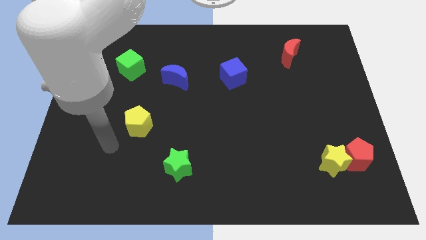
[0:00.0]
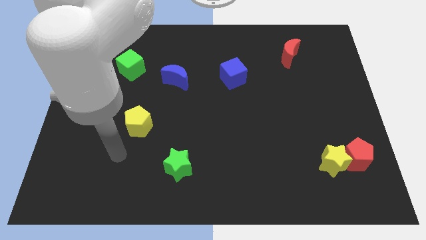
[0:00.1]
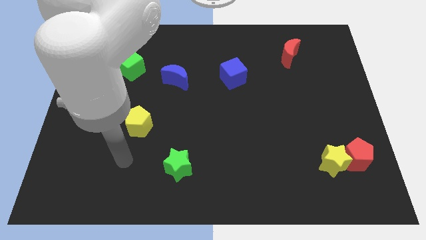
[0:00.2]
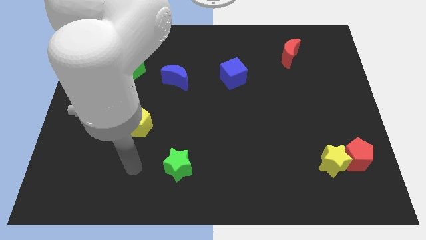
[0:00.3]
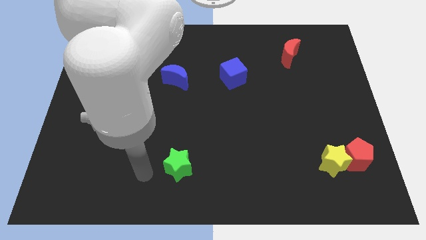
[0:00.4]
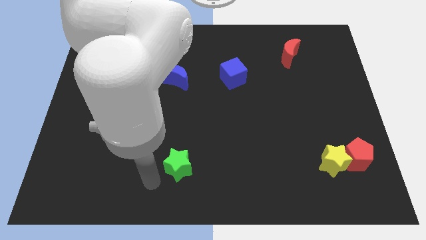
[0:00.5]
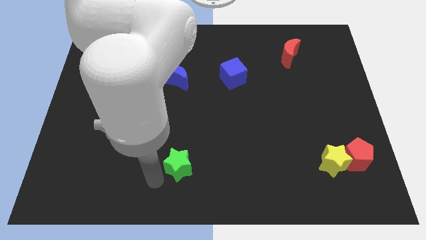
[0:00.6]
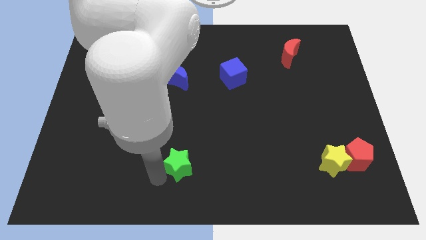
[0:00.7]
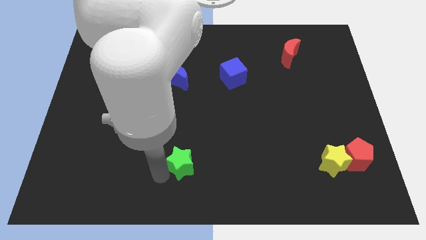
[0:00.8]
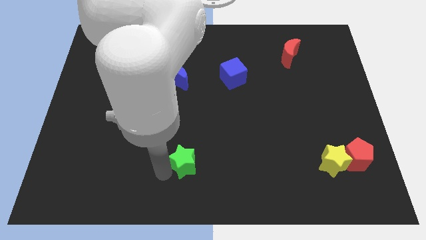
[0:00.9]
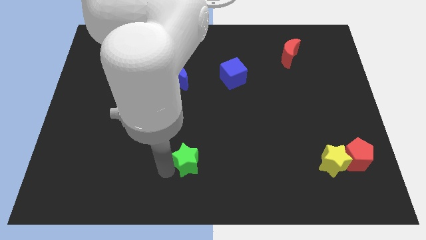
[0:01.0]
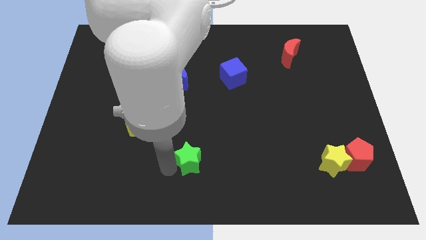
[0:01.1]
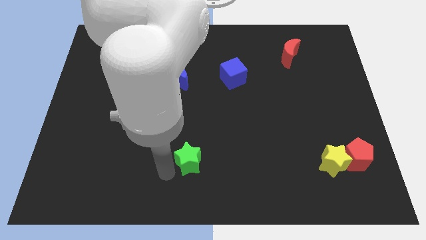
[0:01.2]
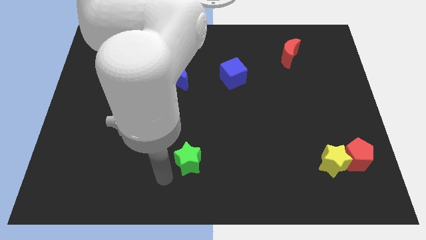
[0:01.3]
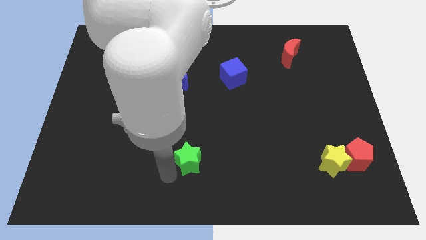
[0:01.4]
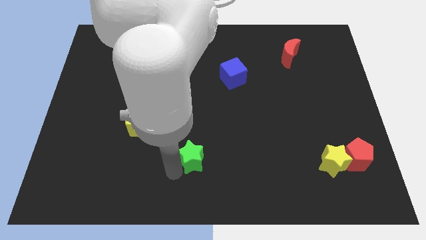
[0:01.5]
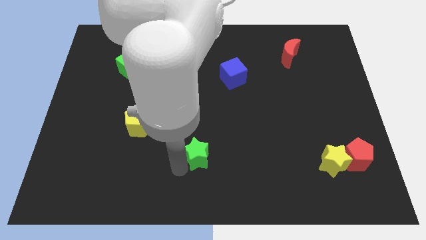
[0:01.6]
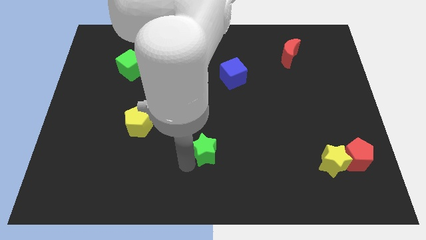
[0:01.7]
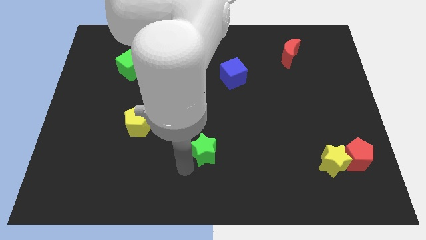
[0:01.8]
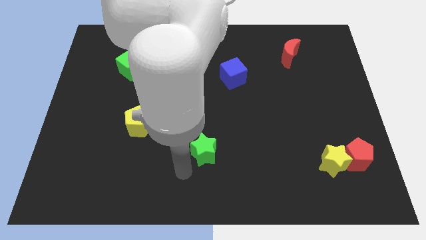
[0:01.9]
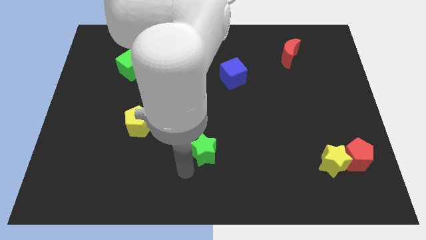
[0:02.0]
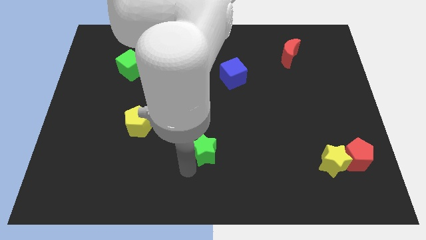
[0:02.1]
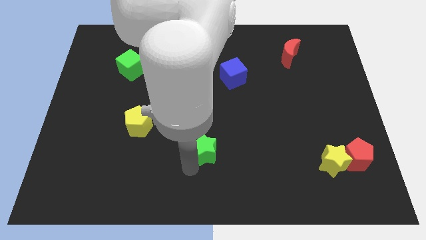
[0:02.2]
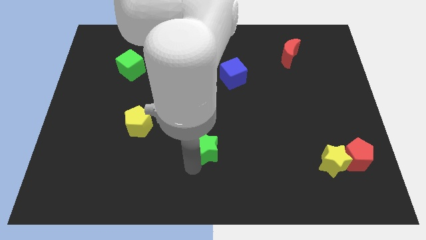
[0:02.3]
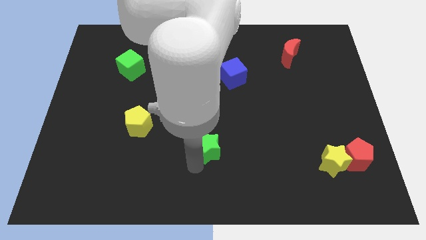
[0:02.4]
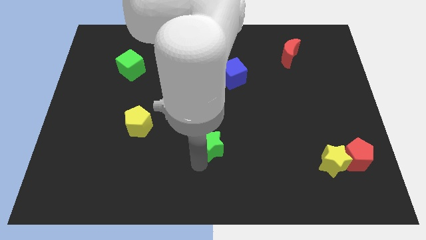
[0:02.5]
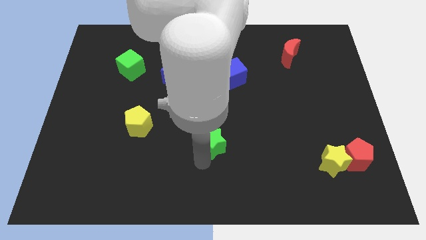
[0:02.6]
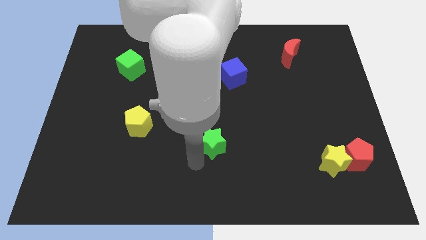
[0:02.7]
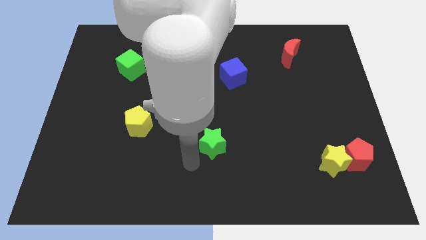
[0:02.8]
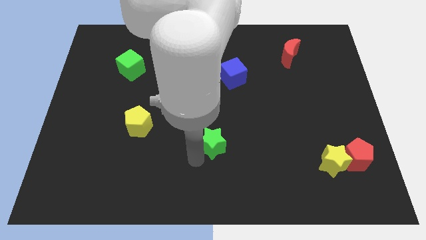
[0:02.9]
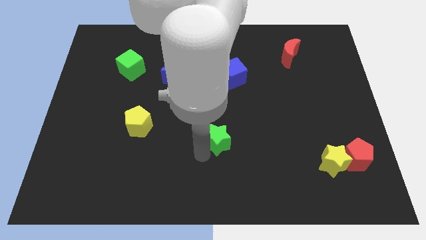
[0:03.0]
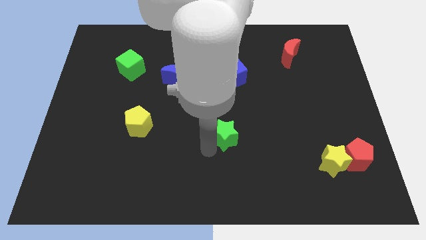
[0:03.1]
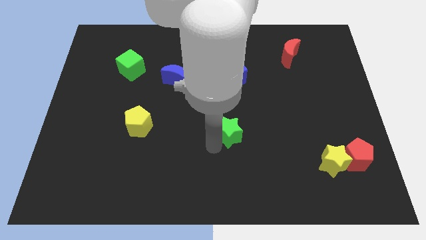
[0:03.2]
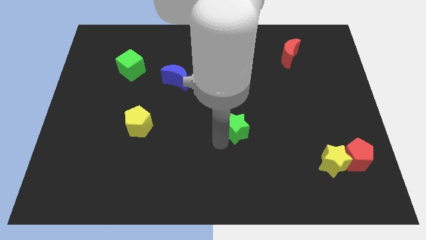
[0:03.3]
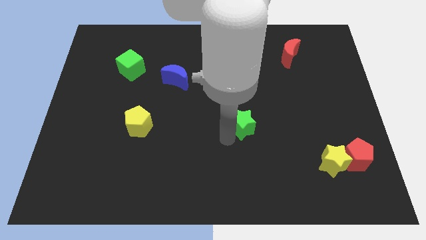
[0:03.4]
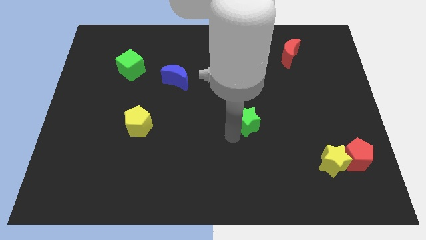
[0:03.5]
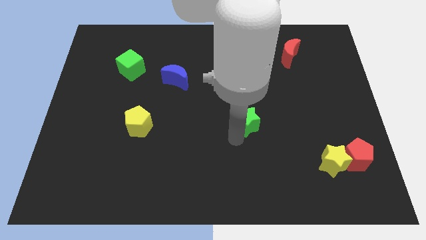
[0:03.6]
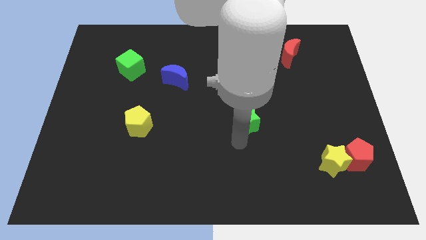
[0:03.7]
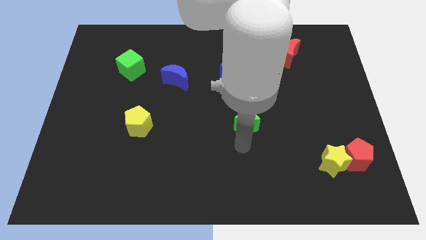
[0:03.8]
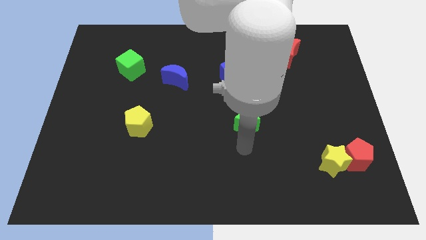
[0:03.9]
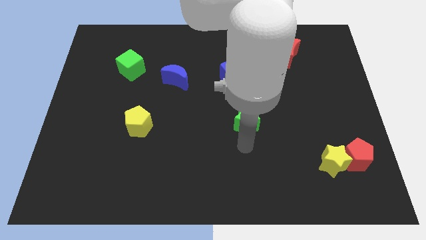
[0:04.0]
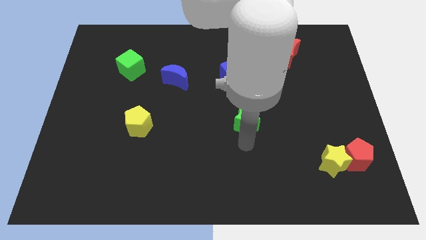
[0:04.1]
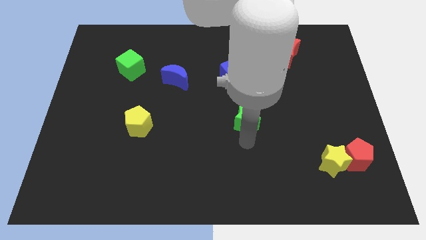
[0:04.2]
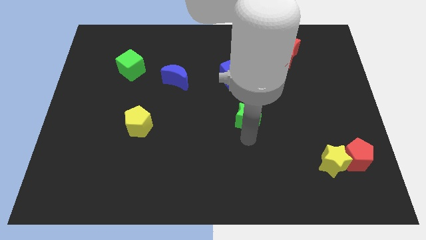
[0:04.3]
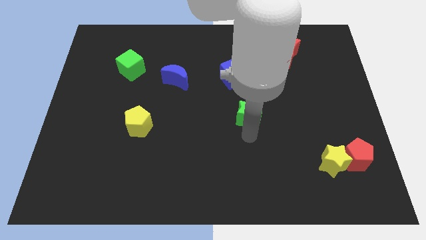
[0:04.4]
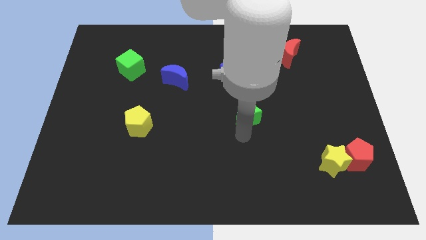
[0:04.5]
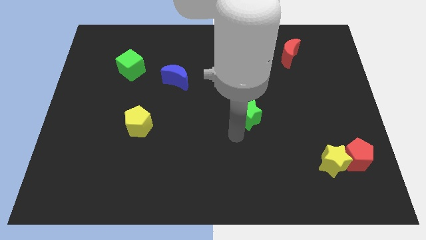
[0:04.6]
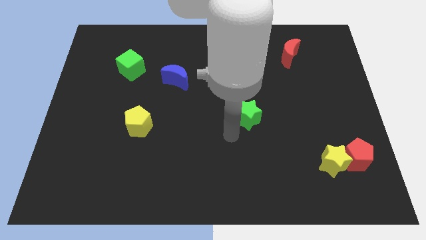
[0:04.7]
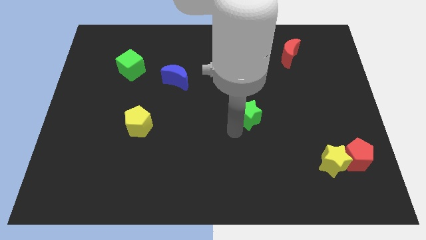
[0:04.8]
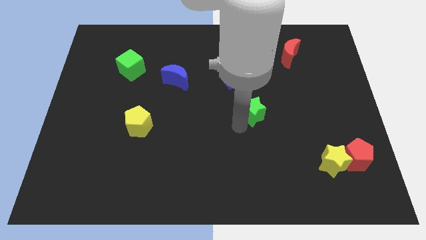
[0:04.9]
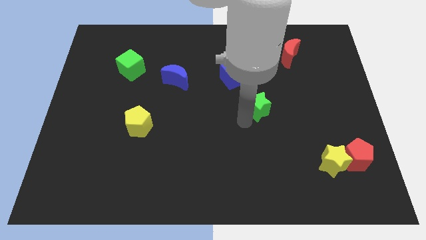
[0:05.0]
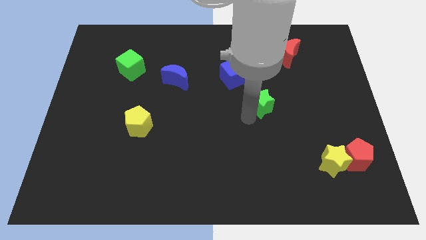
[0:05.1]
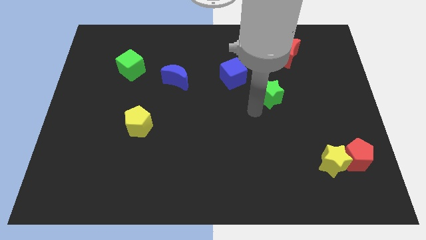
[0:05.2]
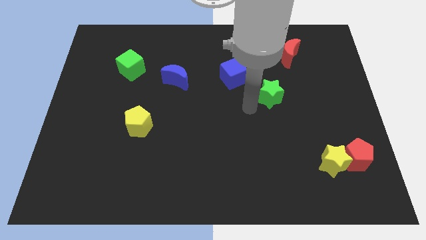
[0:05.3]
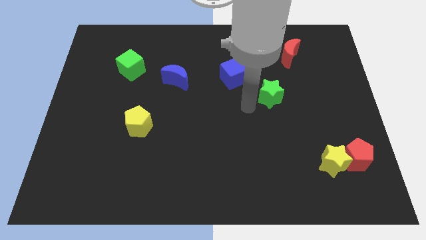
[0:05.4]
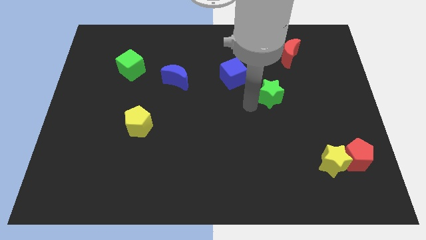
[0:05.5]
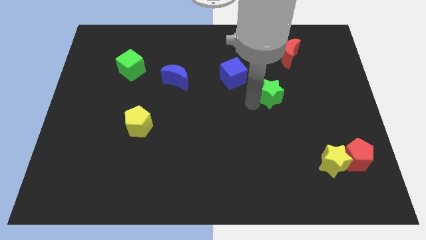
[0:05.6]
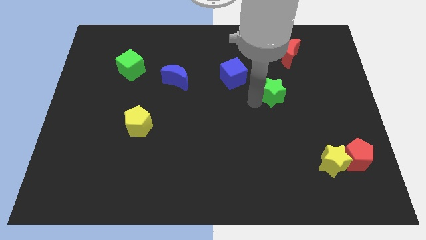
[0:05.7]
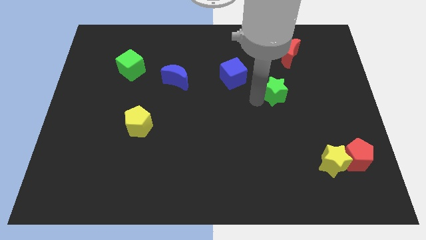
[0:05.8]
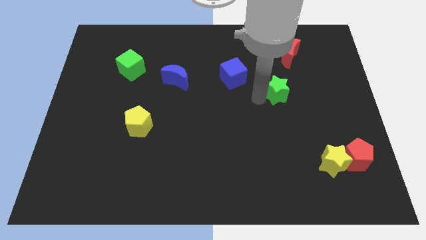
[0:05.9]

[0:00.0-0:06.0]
put the green star below the red moon

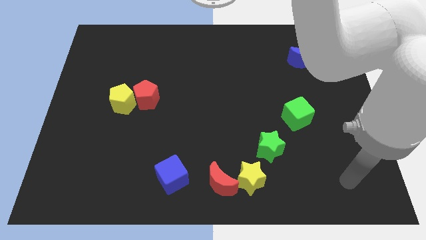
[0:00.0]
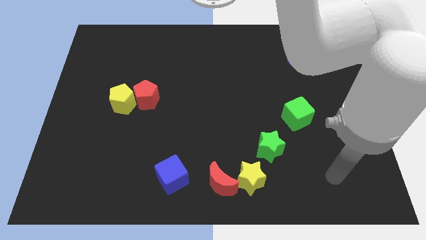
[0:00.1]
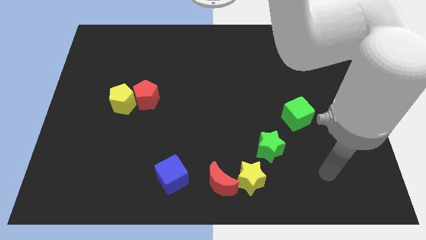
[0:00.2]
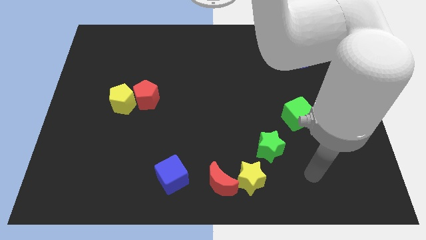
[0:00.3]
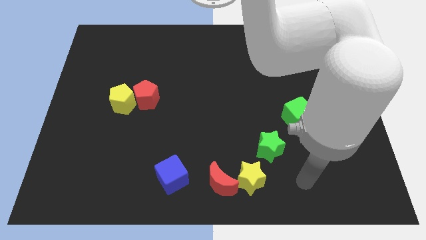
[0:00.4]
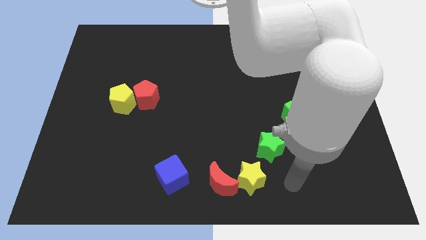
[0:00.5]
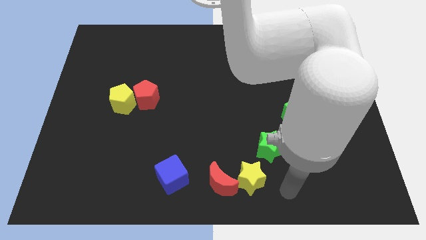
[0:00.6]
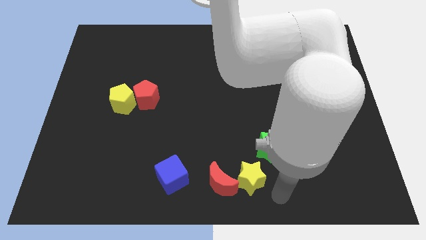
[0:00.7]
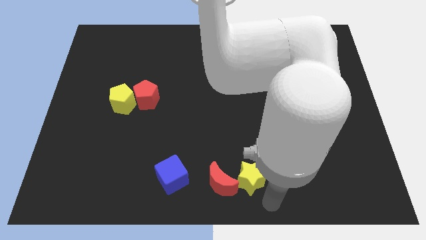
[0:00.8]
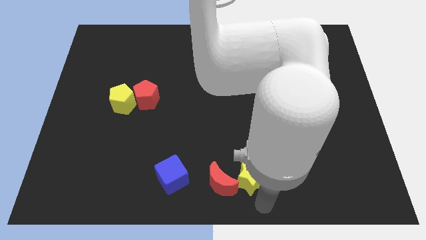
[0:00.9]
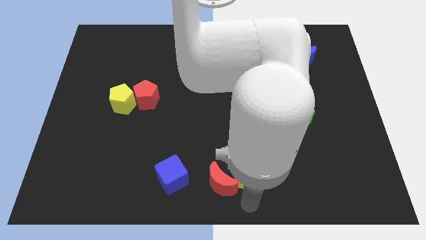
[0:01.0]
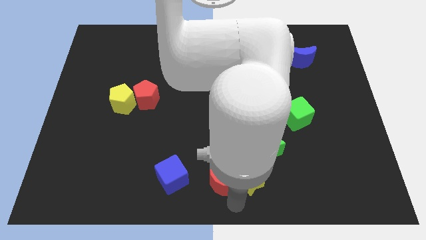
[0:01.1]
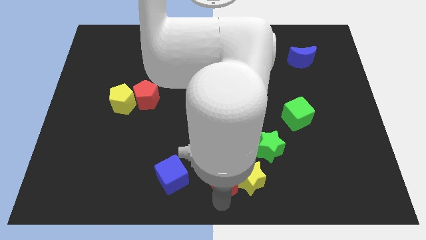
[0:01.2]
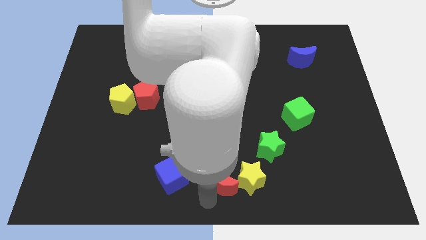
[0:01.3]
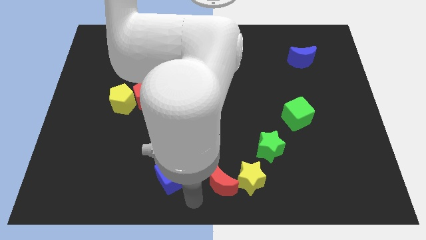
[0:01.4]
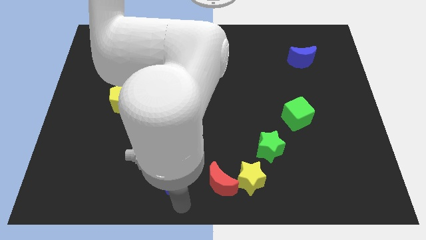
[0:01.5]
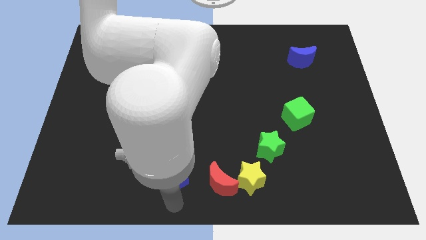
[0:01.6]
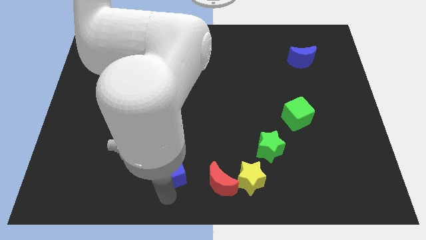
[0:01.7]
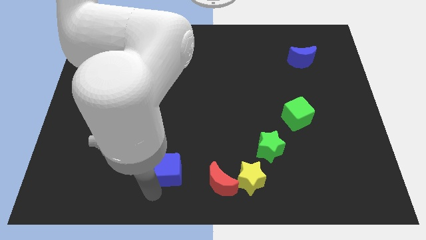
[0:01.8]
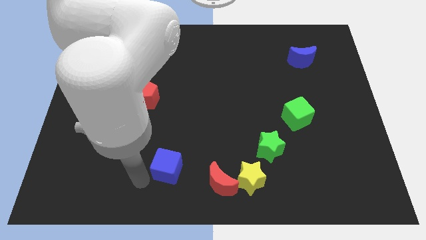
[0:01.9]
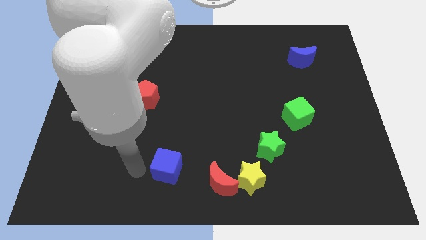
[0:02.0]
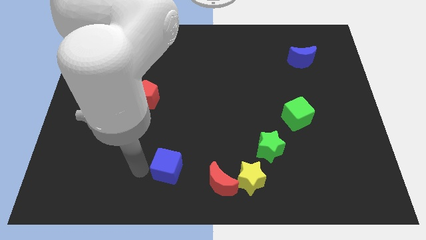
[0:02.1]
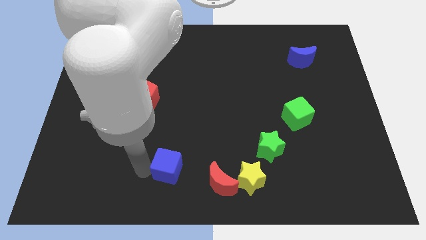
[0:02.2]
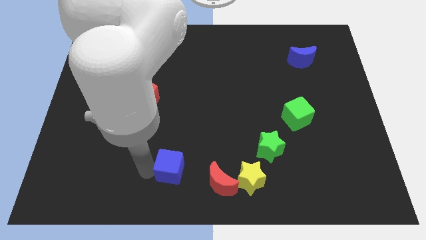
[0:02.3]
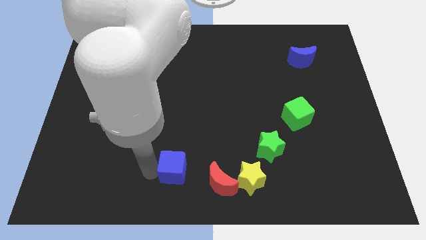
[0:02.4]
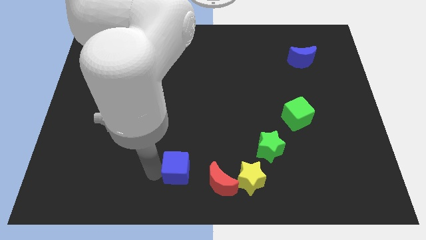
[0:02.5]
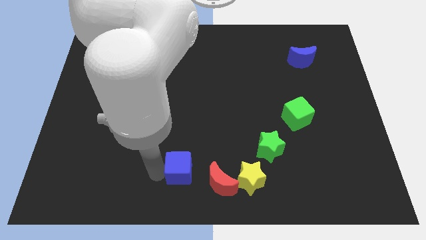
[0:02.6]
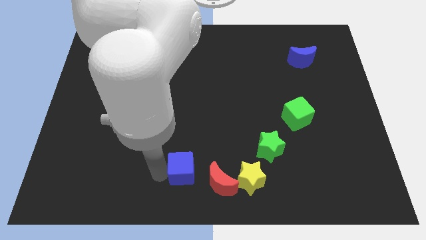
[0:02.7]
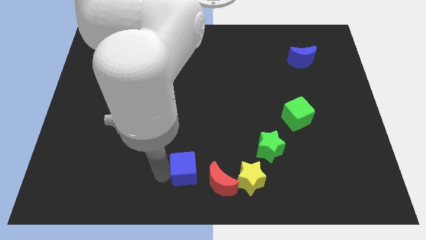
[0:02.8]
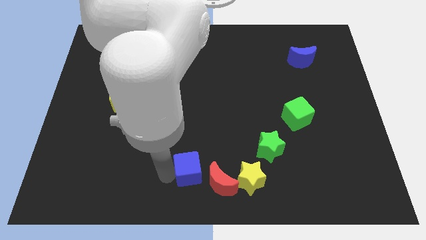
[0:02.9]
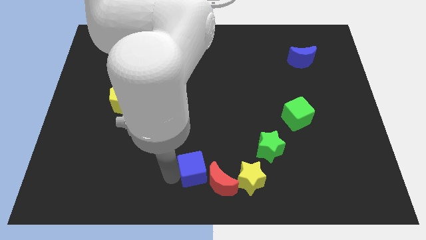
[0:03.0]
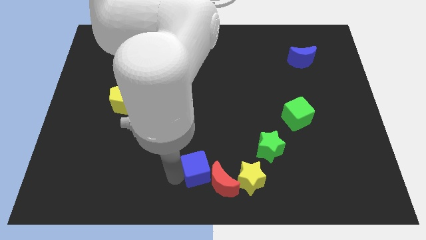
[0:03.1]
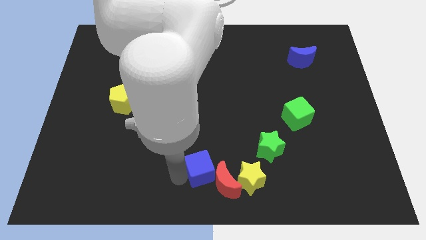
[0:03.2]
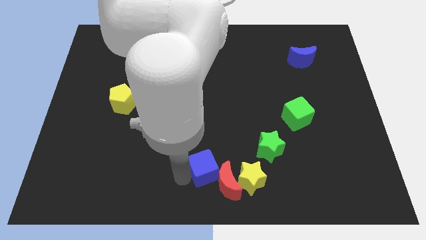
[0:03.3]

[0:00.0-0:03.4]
move the blue cube to the top left of the yellow star
